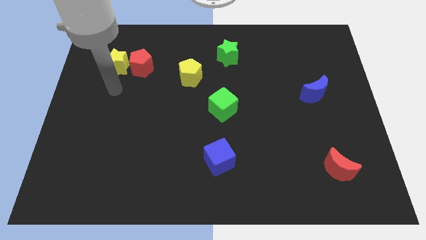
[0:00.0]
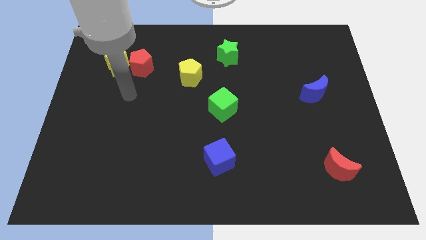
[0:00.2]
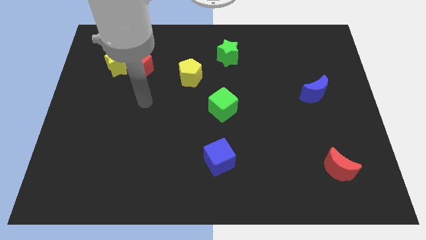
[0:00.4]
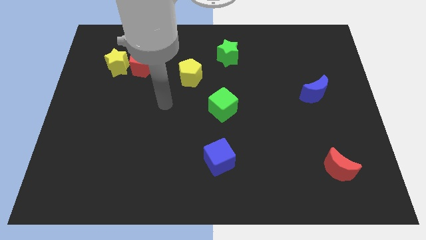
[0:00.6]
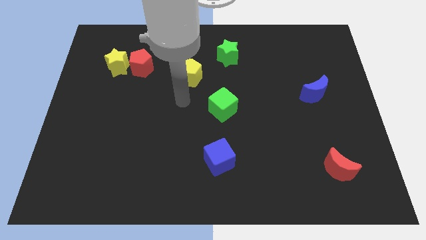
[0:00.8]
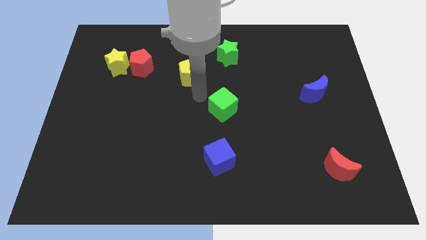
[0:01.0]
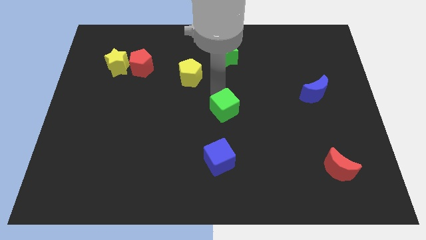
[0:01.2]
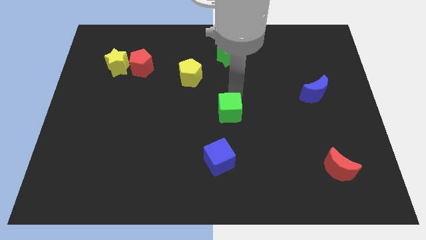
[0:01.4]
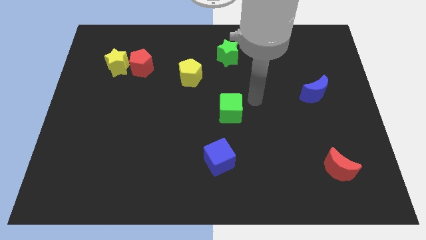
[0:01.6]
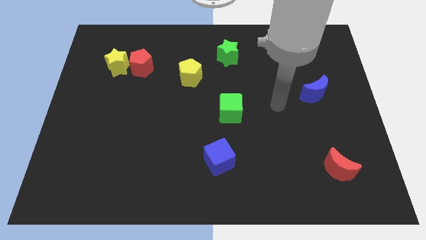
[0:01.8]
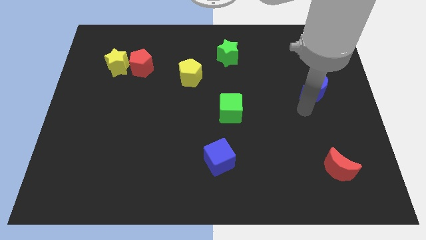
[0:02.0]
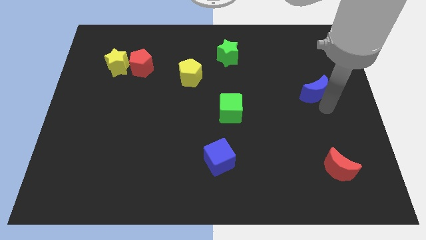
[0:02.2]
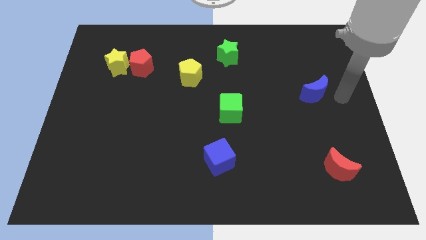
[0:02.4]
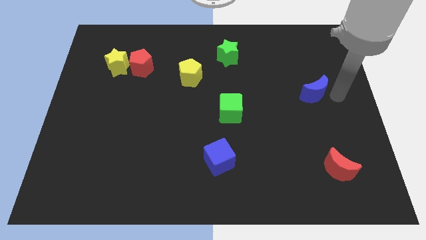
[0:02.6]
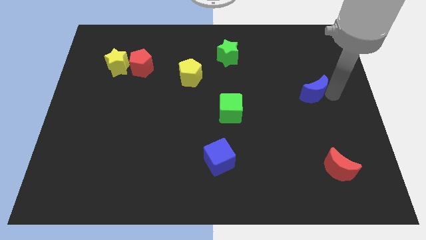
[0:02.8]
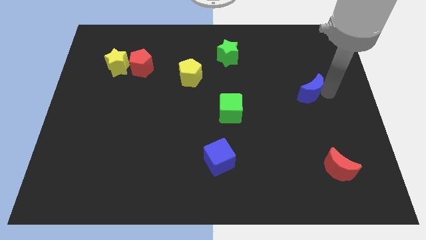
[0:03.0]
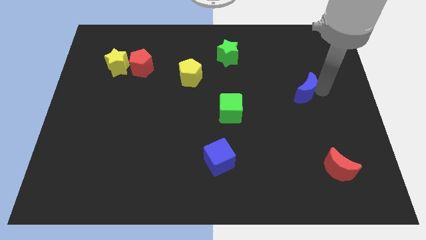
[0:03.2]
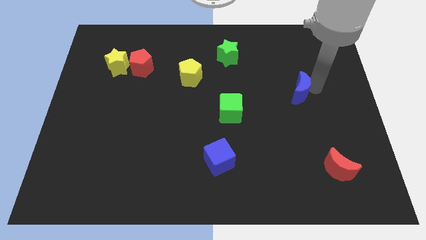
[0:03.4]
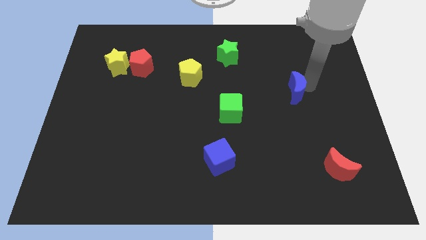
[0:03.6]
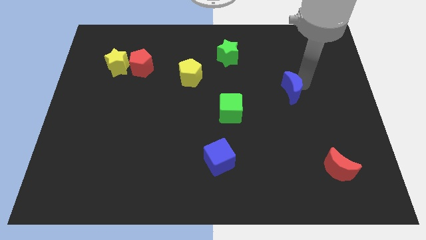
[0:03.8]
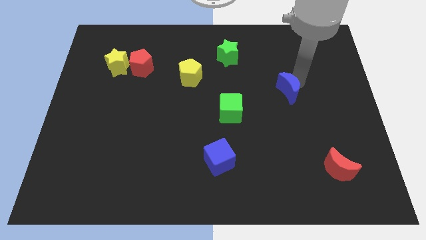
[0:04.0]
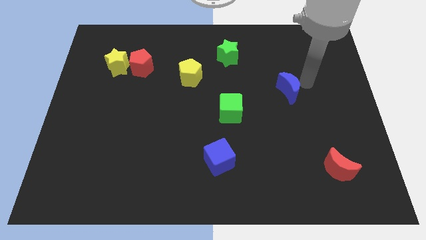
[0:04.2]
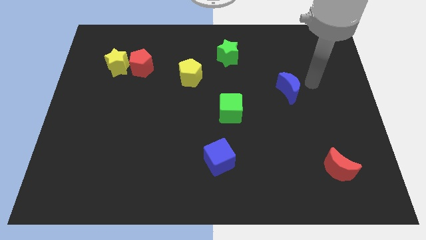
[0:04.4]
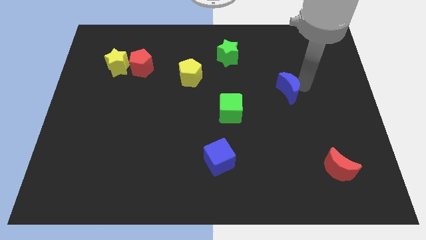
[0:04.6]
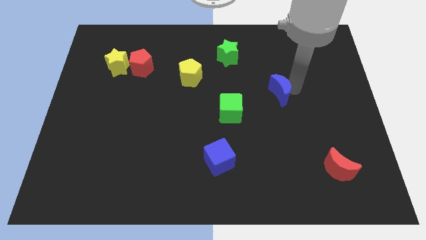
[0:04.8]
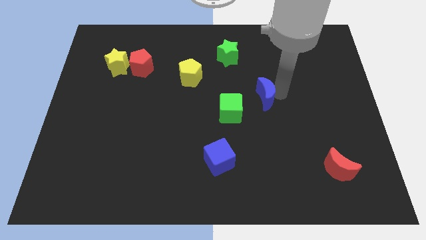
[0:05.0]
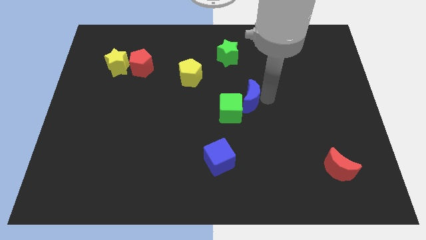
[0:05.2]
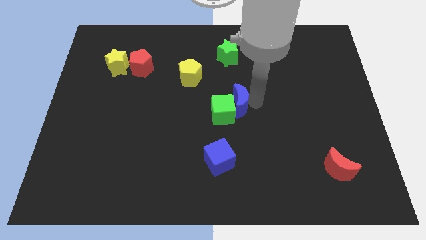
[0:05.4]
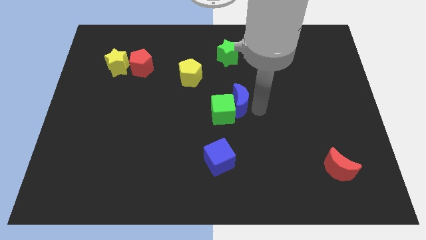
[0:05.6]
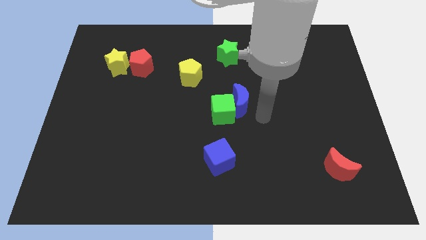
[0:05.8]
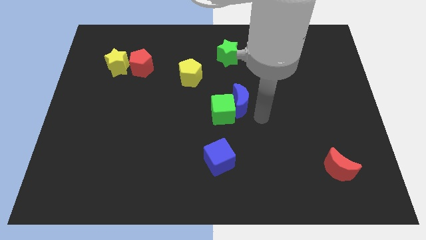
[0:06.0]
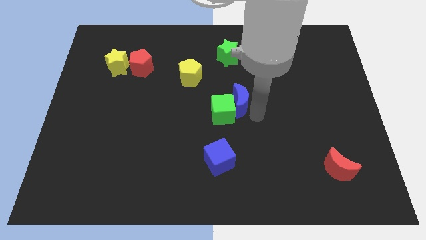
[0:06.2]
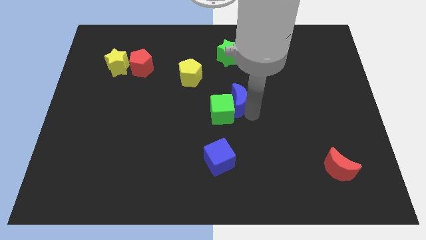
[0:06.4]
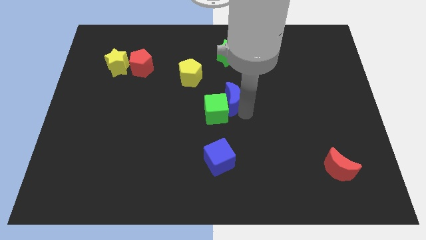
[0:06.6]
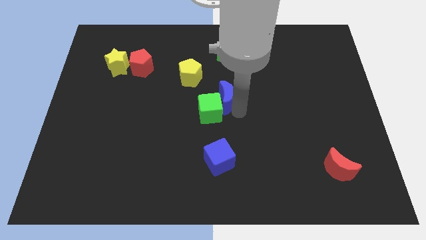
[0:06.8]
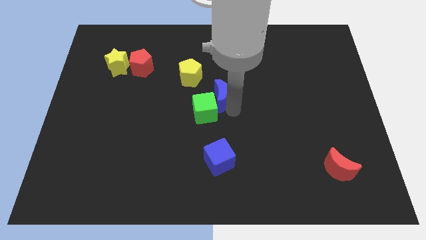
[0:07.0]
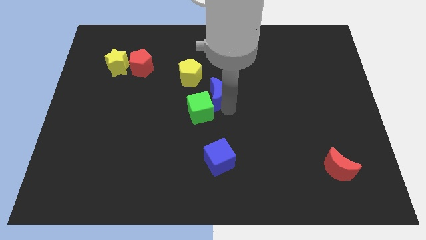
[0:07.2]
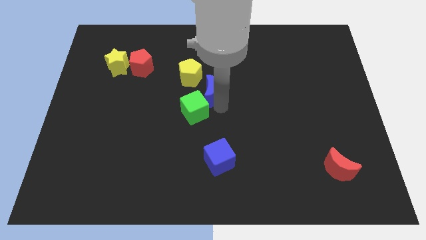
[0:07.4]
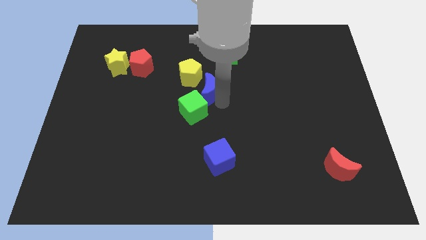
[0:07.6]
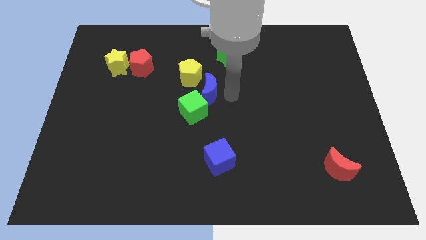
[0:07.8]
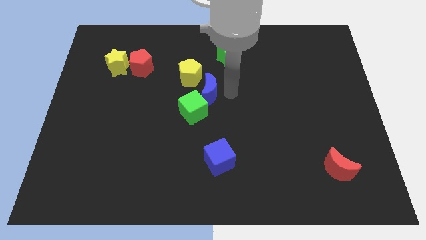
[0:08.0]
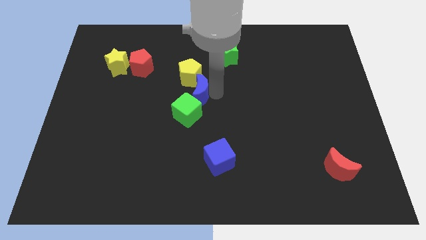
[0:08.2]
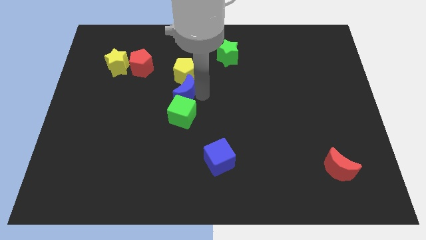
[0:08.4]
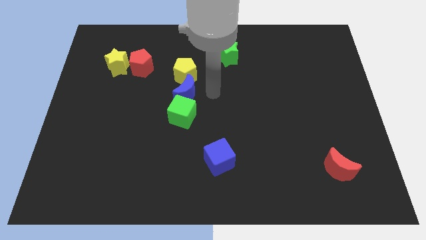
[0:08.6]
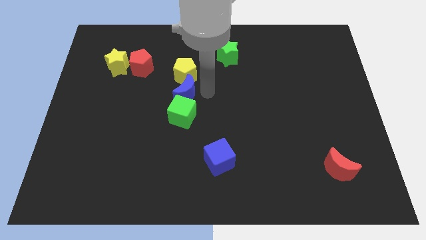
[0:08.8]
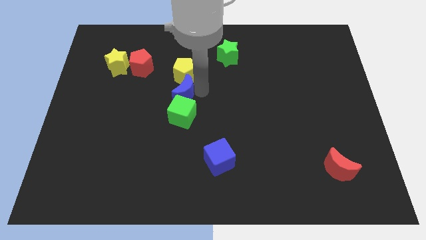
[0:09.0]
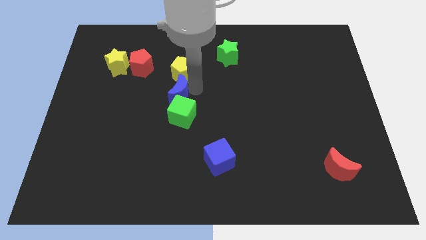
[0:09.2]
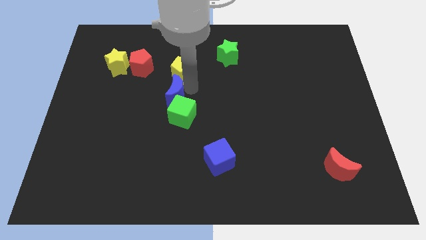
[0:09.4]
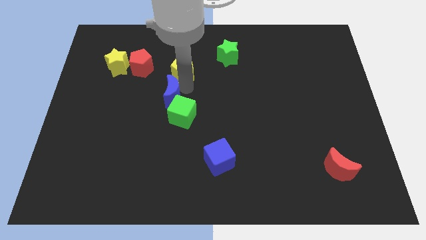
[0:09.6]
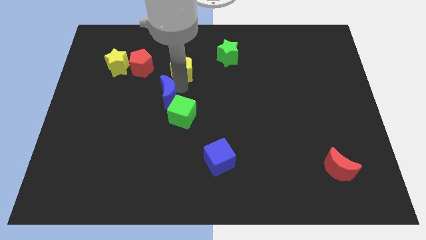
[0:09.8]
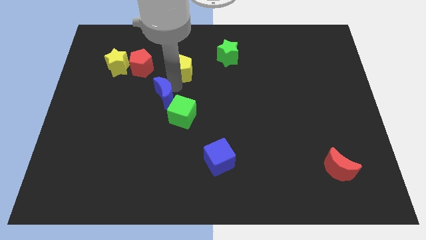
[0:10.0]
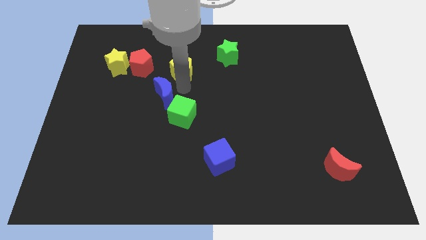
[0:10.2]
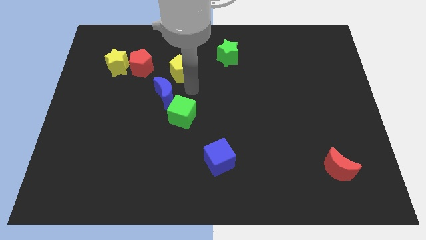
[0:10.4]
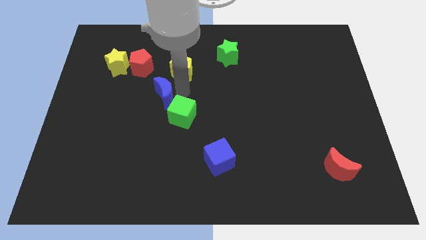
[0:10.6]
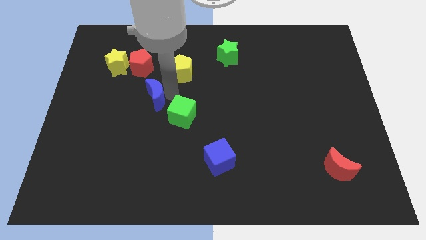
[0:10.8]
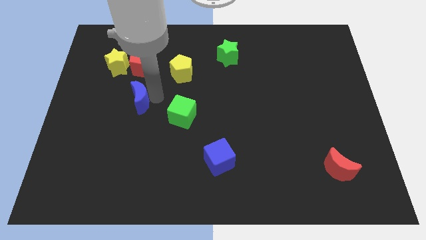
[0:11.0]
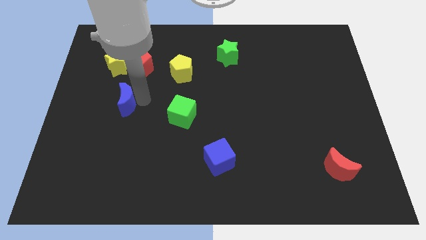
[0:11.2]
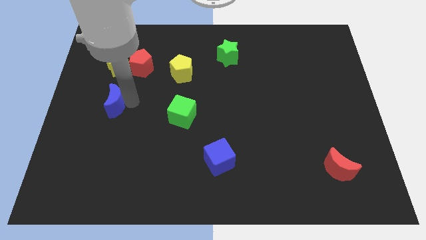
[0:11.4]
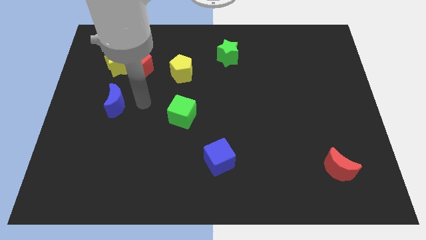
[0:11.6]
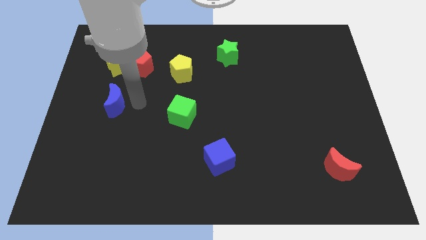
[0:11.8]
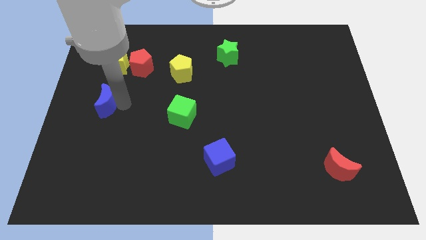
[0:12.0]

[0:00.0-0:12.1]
move the blue moon to the left side
